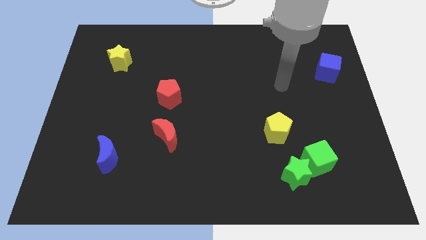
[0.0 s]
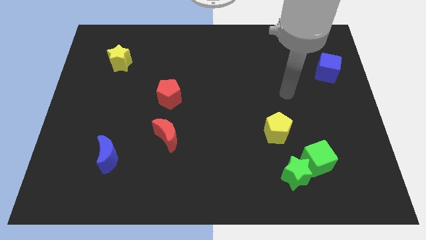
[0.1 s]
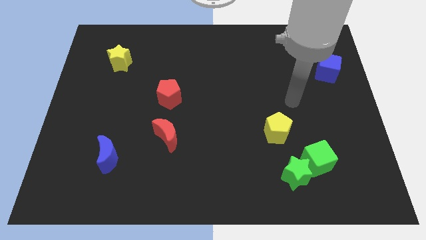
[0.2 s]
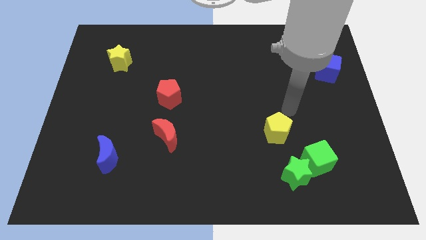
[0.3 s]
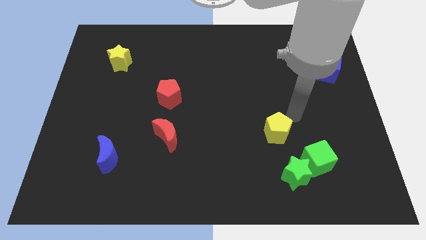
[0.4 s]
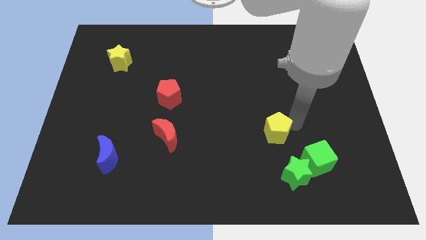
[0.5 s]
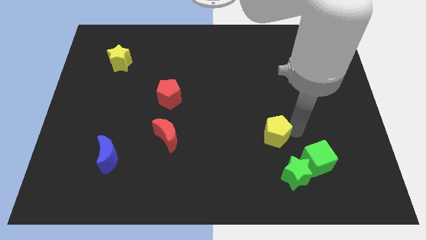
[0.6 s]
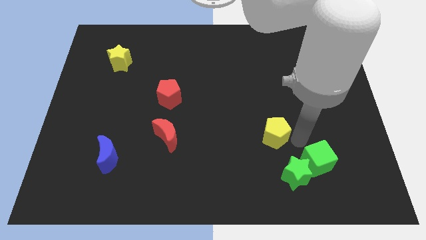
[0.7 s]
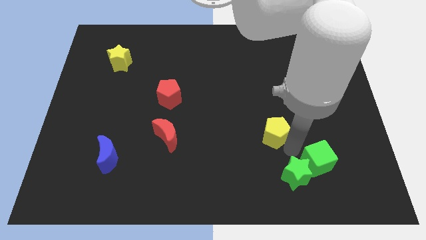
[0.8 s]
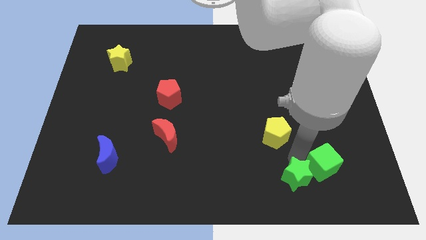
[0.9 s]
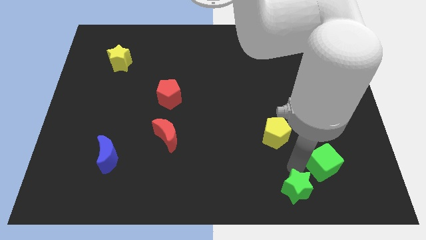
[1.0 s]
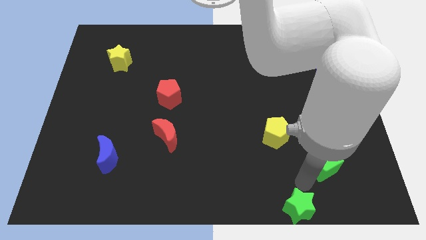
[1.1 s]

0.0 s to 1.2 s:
move the green cube away from the green star

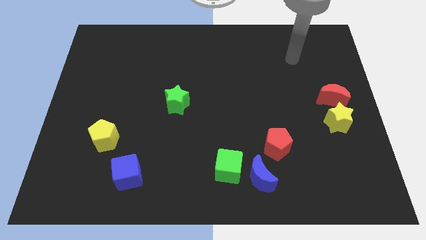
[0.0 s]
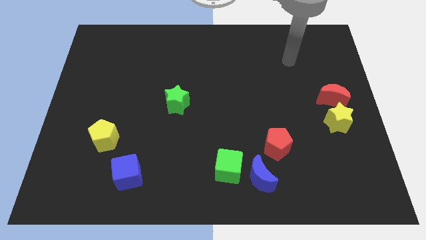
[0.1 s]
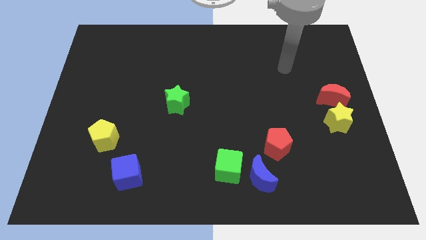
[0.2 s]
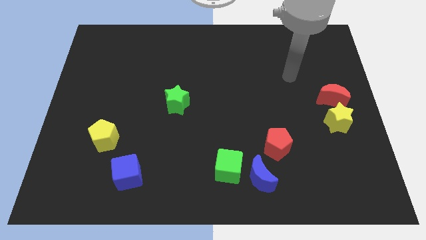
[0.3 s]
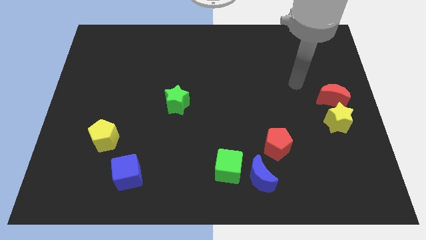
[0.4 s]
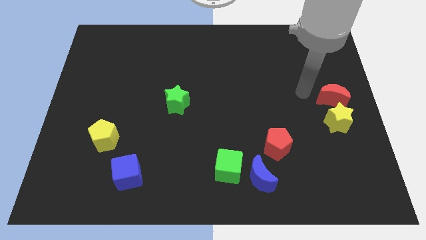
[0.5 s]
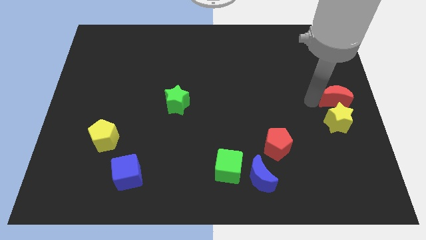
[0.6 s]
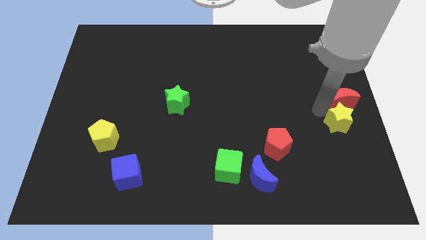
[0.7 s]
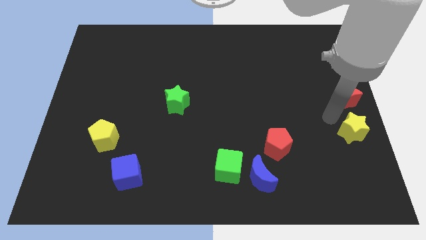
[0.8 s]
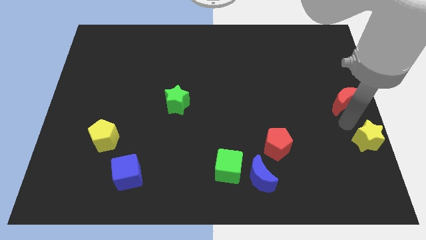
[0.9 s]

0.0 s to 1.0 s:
move the red moon away from the yellow star

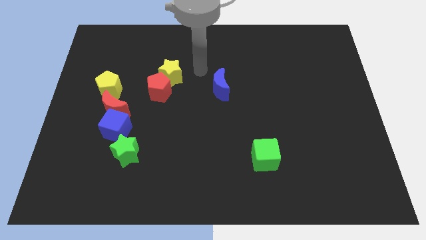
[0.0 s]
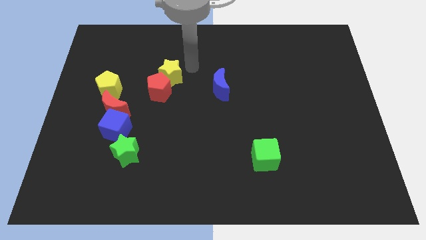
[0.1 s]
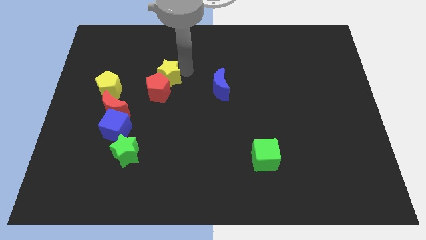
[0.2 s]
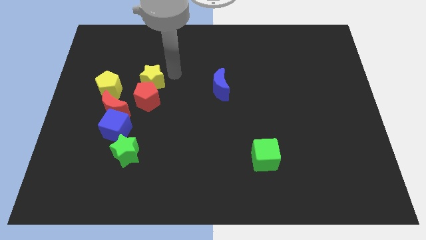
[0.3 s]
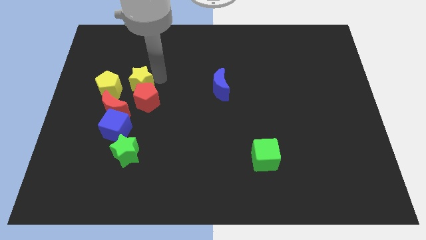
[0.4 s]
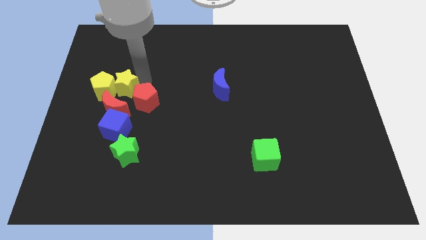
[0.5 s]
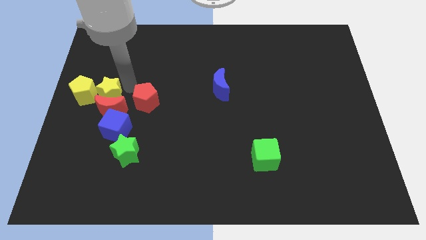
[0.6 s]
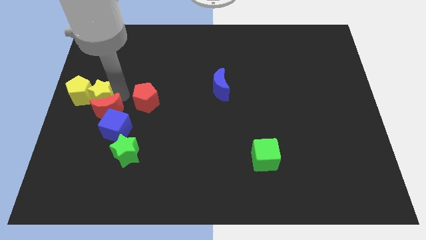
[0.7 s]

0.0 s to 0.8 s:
pull the red pentagon apart from the yellow star

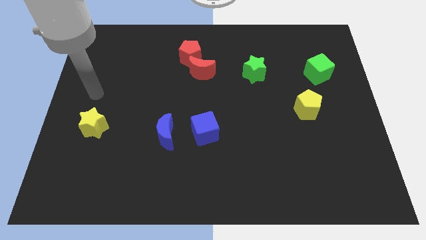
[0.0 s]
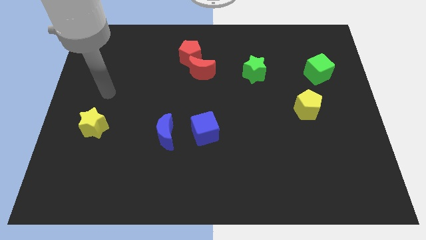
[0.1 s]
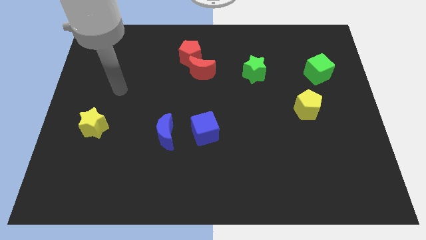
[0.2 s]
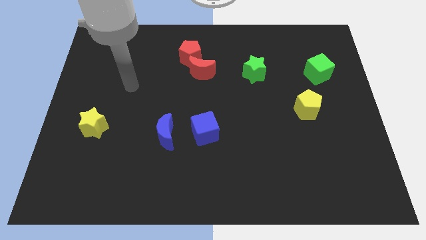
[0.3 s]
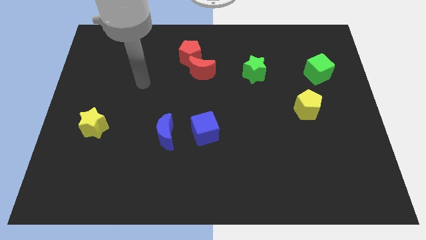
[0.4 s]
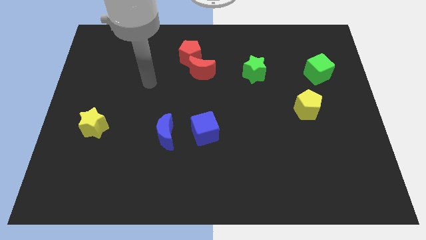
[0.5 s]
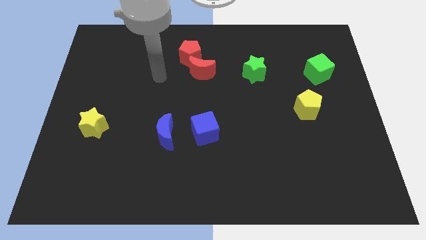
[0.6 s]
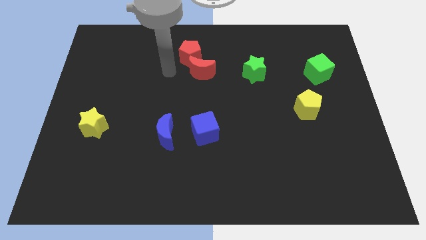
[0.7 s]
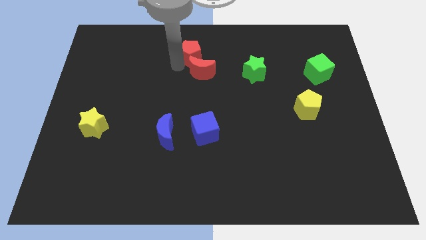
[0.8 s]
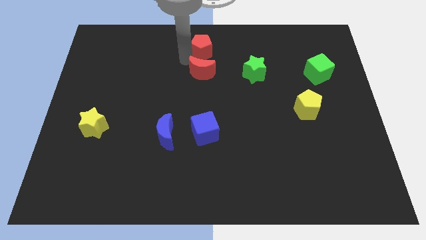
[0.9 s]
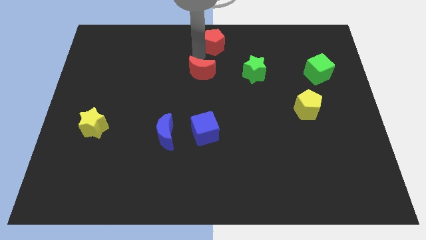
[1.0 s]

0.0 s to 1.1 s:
move the red moon away from the red pentagon

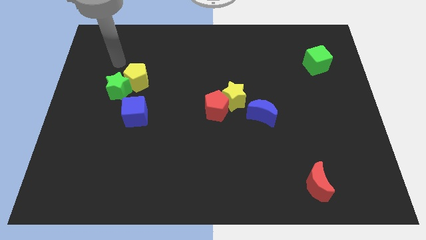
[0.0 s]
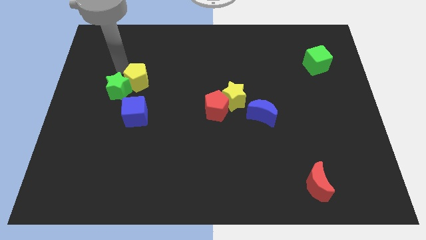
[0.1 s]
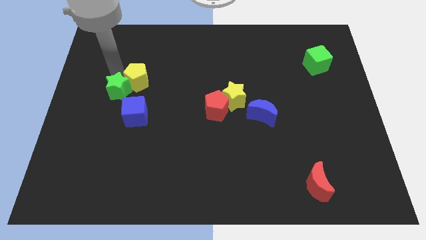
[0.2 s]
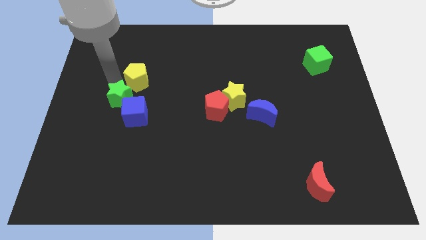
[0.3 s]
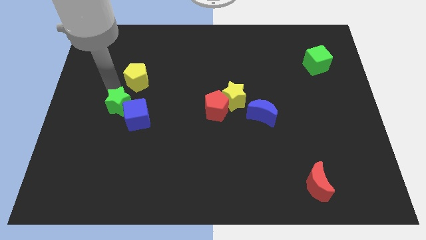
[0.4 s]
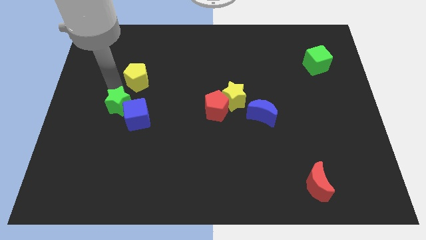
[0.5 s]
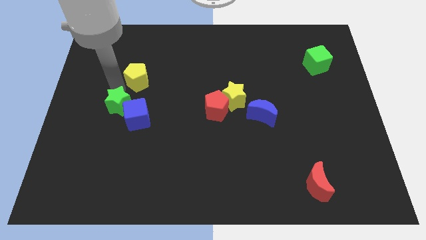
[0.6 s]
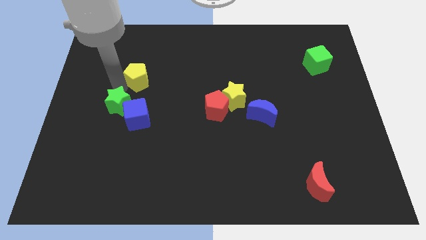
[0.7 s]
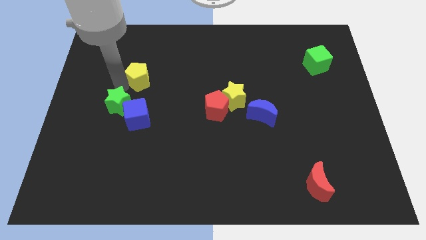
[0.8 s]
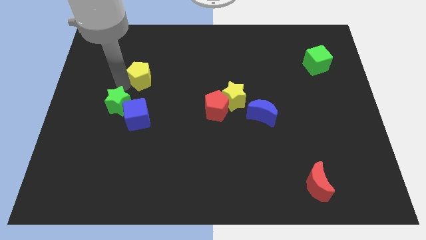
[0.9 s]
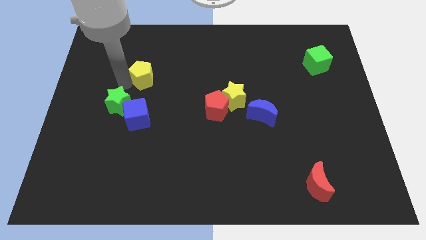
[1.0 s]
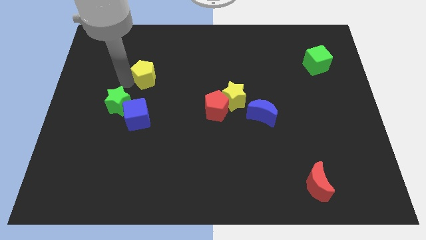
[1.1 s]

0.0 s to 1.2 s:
pull the yellow pentagon apart from the green star

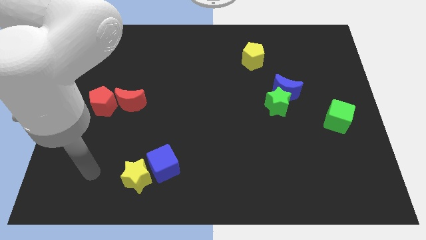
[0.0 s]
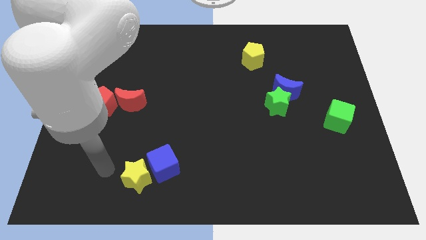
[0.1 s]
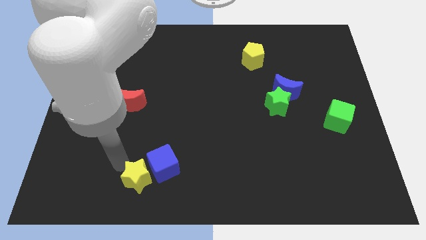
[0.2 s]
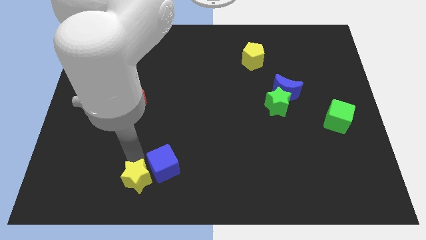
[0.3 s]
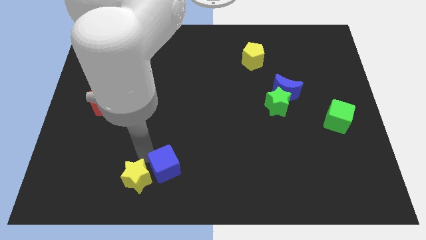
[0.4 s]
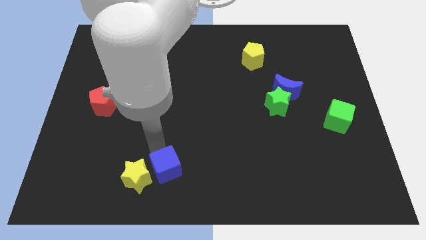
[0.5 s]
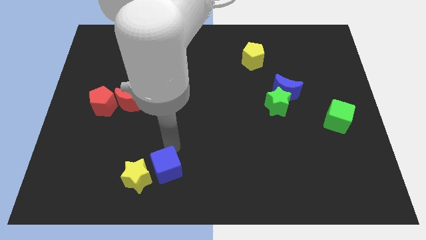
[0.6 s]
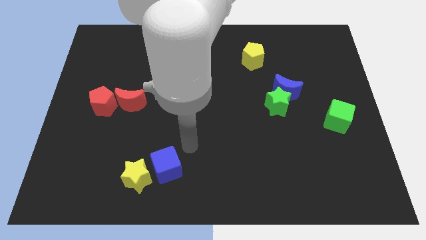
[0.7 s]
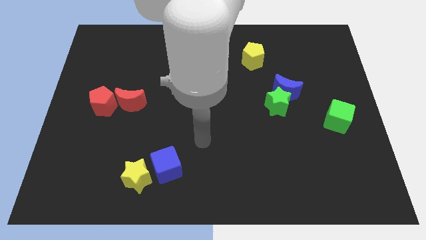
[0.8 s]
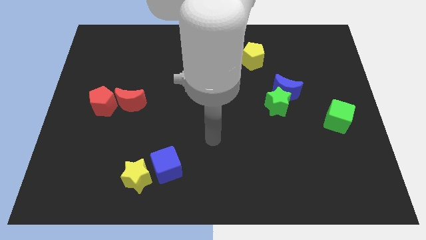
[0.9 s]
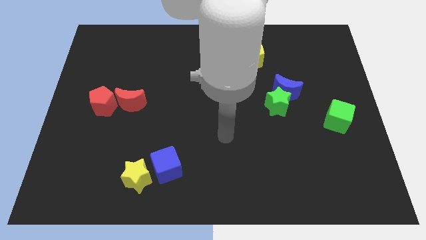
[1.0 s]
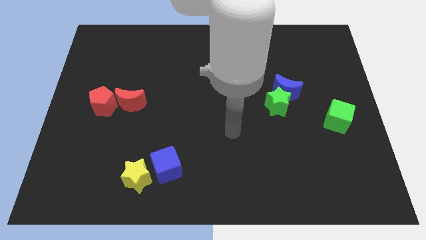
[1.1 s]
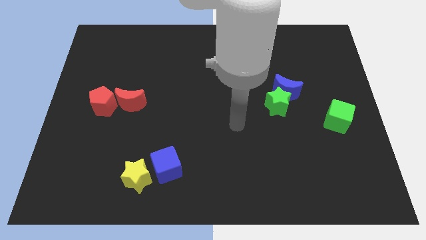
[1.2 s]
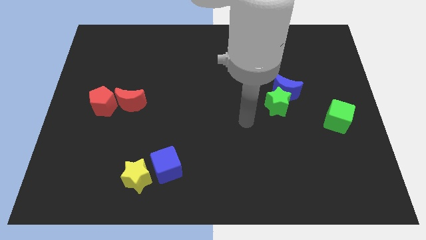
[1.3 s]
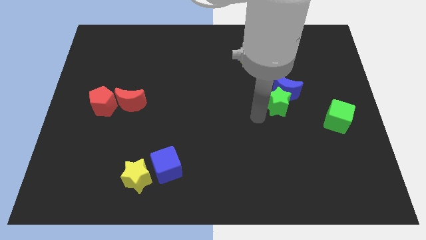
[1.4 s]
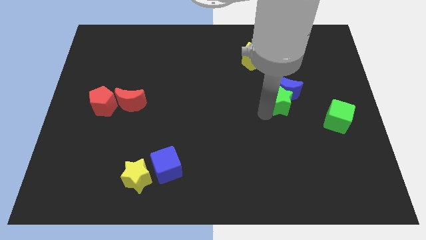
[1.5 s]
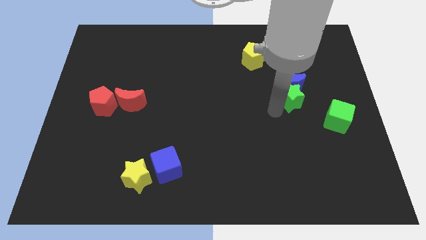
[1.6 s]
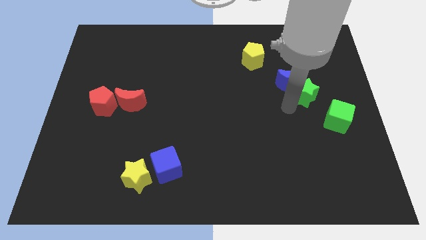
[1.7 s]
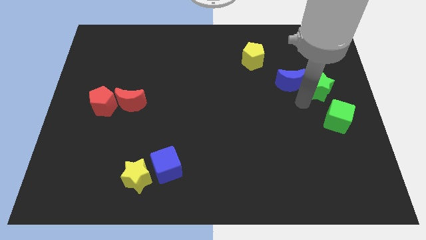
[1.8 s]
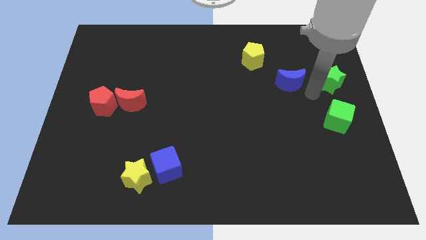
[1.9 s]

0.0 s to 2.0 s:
move the blue moon away from the green star

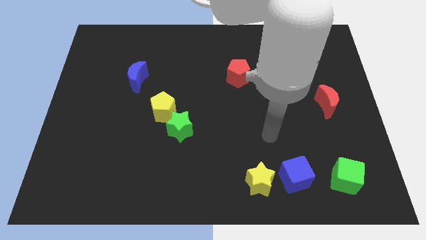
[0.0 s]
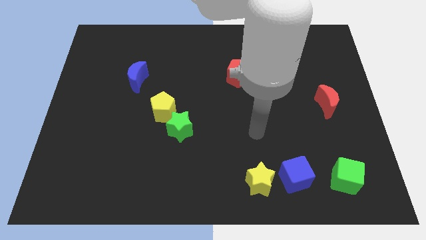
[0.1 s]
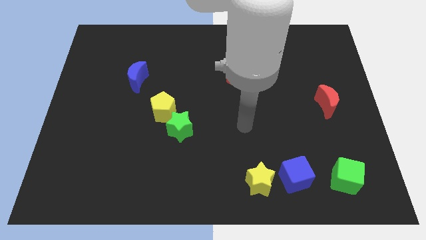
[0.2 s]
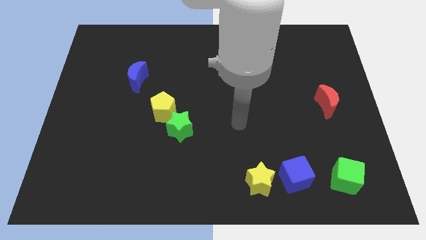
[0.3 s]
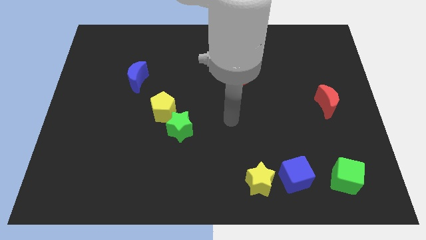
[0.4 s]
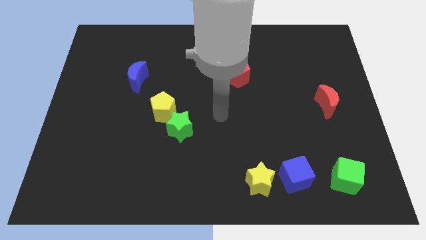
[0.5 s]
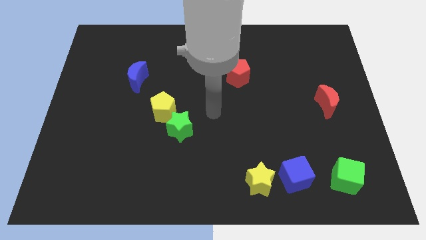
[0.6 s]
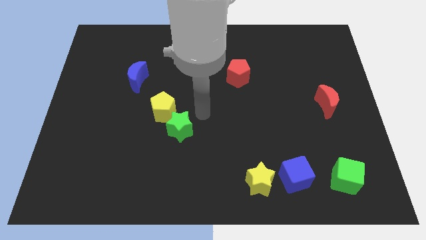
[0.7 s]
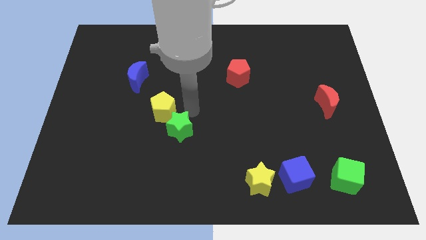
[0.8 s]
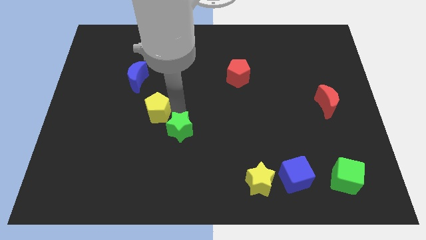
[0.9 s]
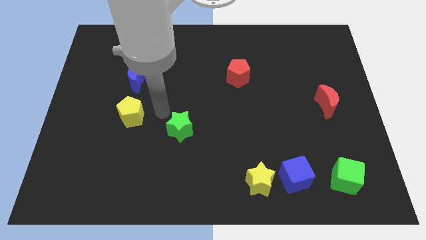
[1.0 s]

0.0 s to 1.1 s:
separate the green star from the yellow pentagon

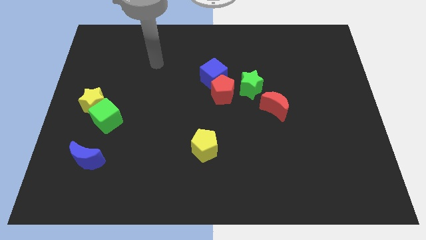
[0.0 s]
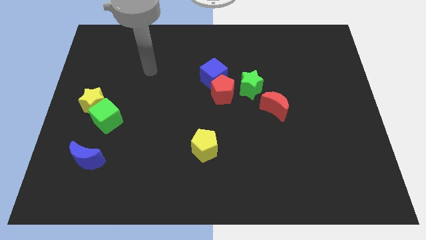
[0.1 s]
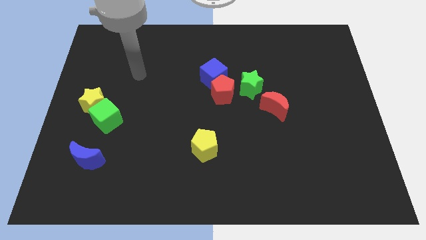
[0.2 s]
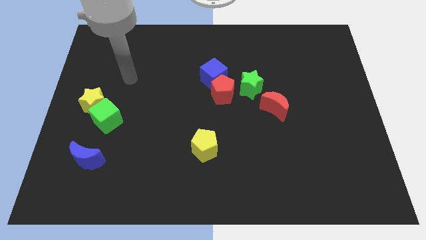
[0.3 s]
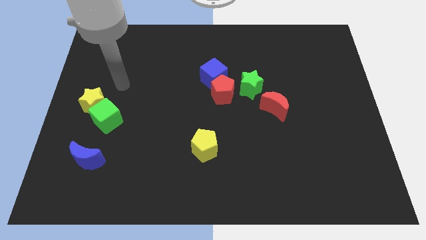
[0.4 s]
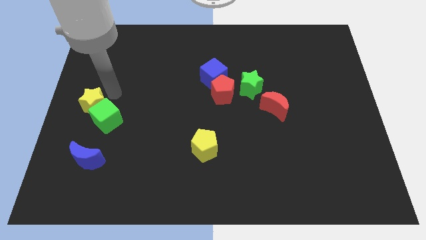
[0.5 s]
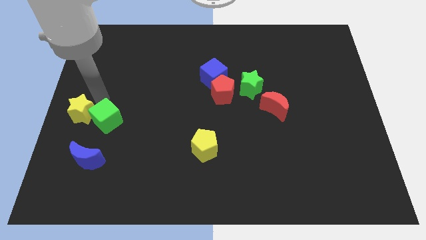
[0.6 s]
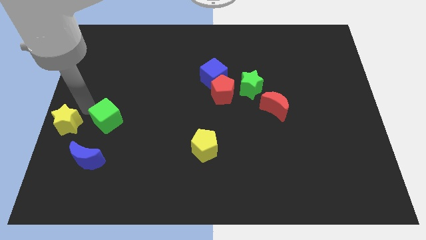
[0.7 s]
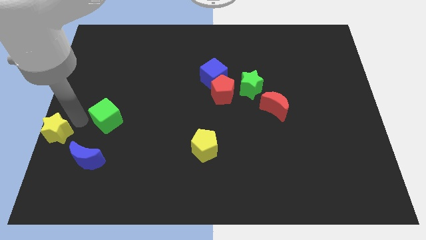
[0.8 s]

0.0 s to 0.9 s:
separate the green cube from the yellow star
